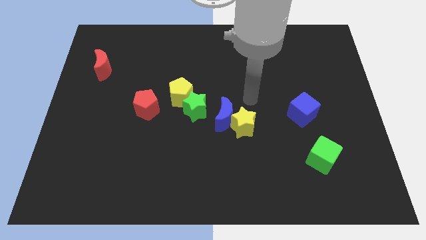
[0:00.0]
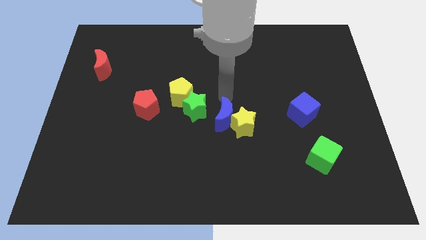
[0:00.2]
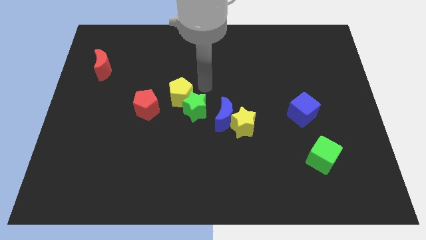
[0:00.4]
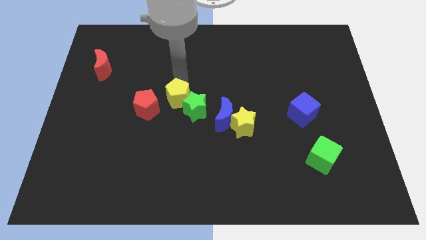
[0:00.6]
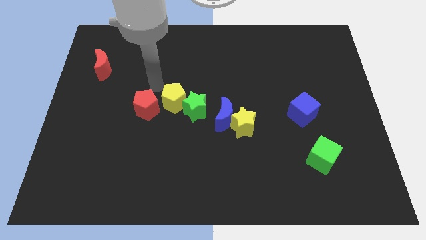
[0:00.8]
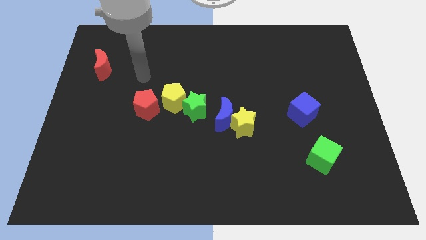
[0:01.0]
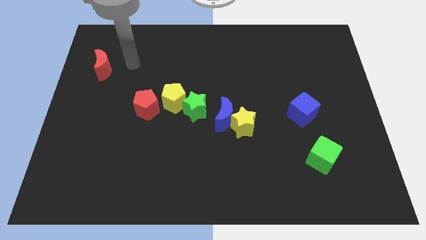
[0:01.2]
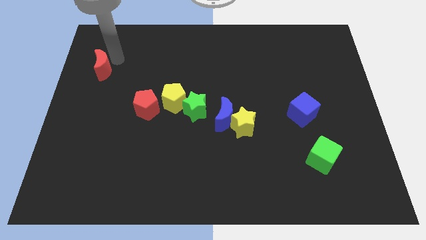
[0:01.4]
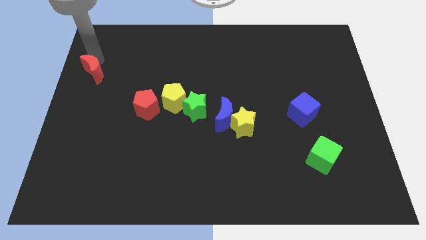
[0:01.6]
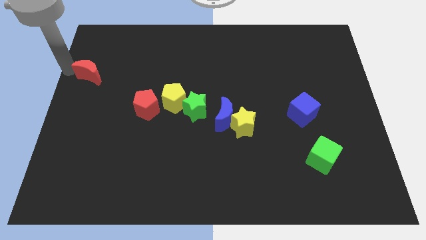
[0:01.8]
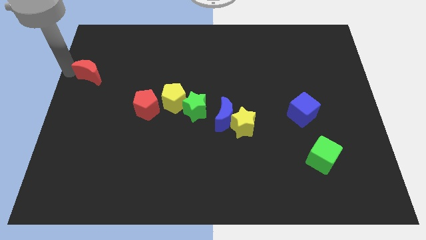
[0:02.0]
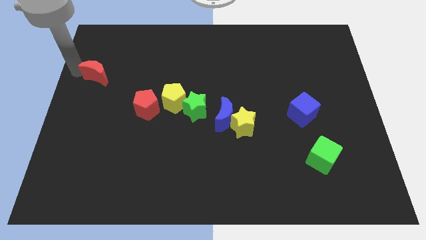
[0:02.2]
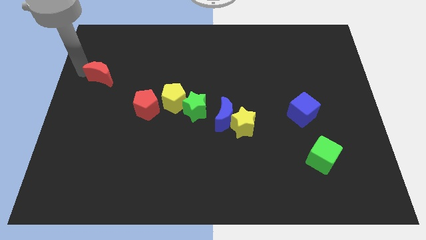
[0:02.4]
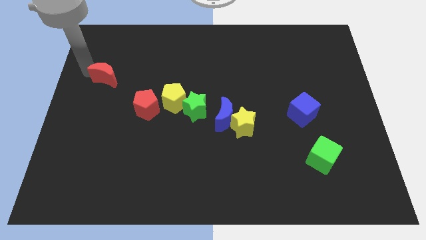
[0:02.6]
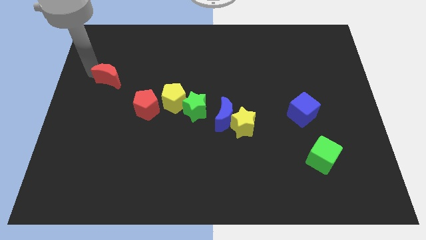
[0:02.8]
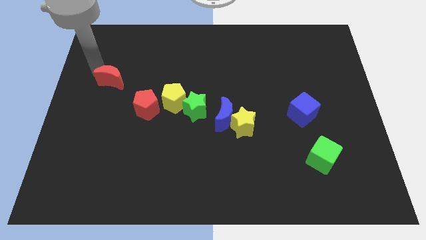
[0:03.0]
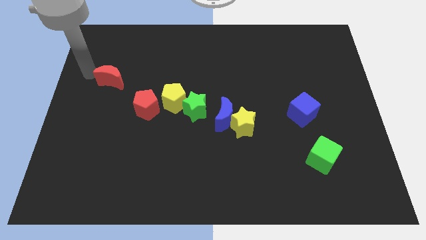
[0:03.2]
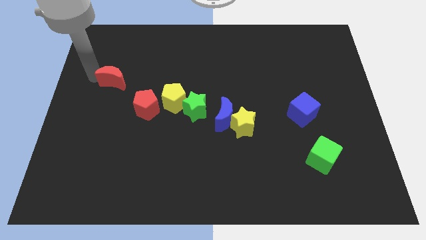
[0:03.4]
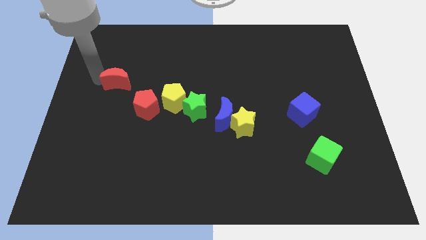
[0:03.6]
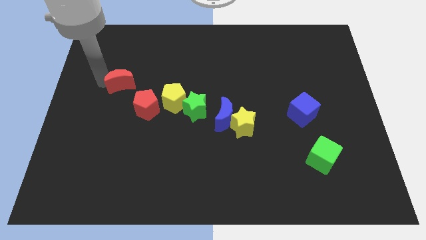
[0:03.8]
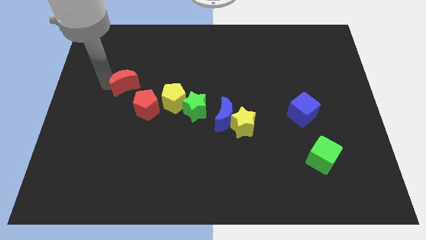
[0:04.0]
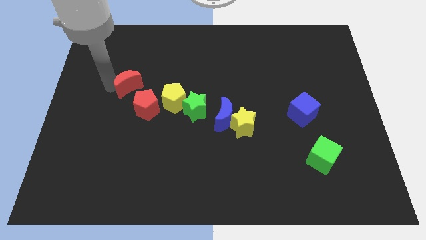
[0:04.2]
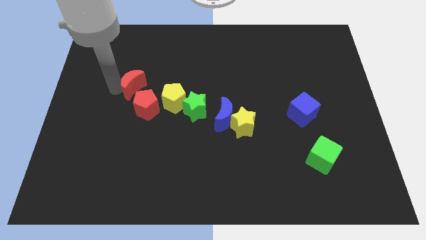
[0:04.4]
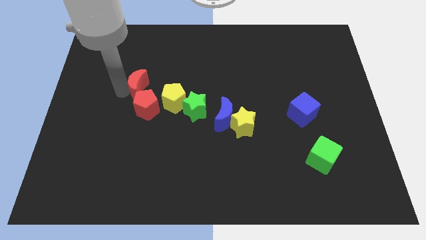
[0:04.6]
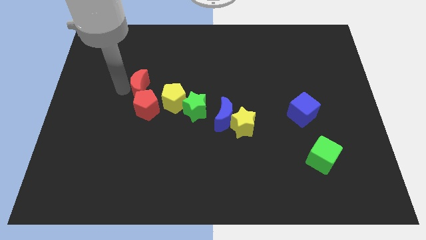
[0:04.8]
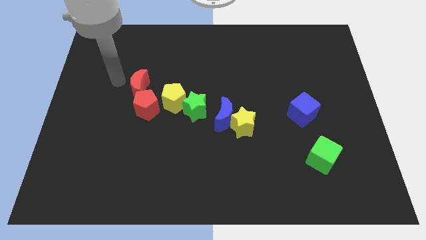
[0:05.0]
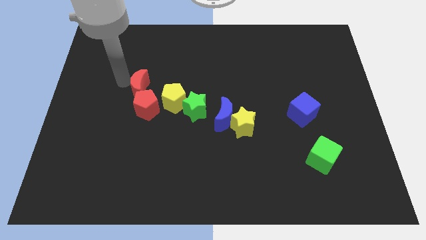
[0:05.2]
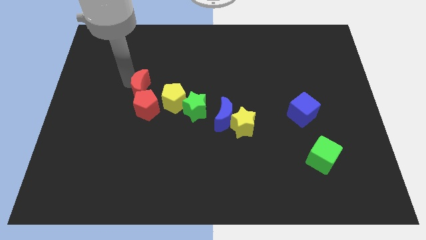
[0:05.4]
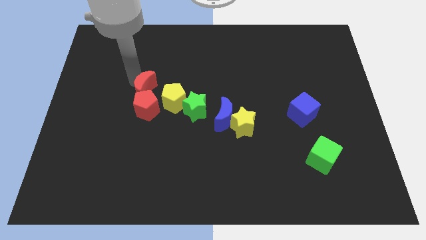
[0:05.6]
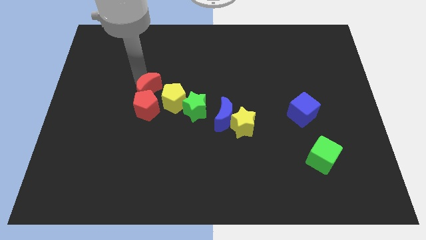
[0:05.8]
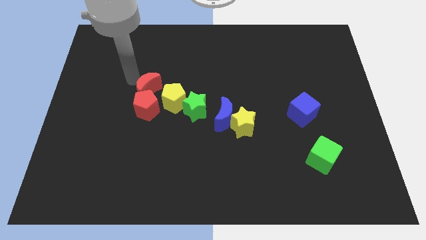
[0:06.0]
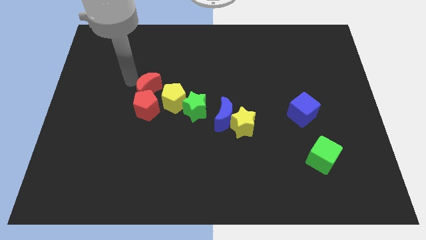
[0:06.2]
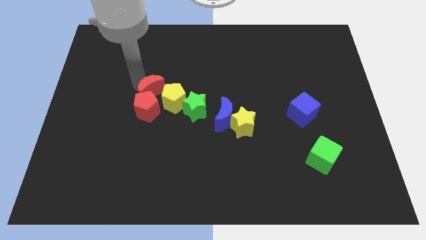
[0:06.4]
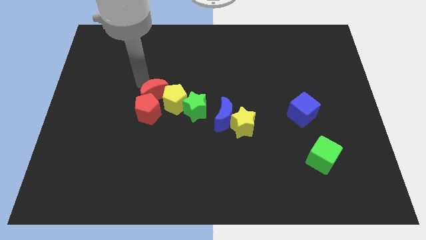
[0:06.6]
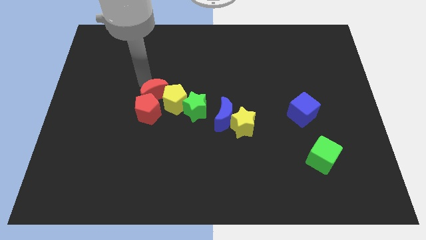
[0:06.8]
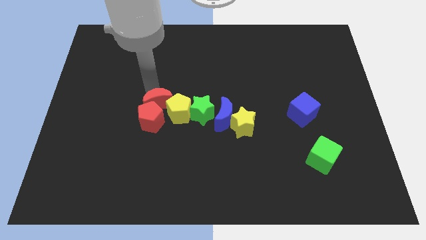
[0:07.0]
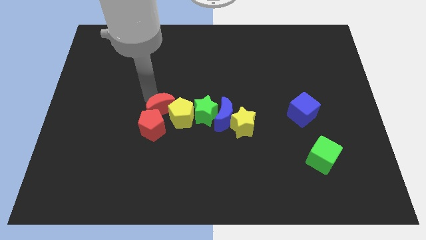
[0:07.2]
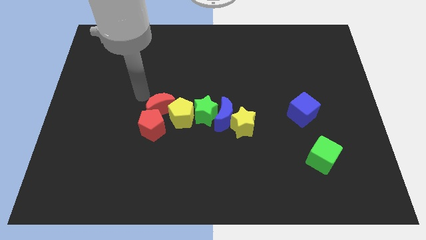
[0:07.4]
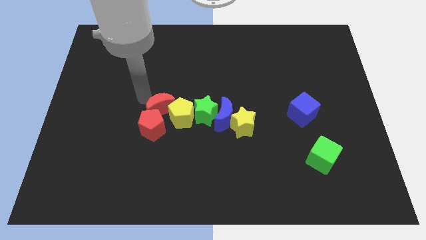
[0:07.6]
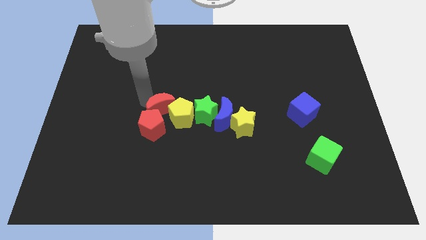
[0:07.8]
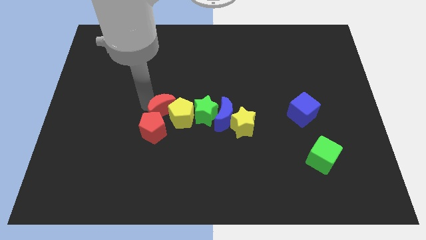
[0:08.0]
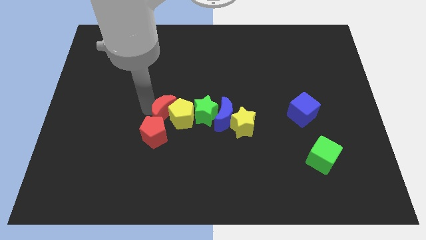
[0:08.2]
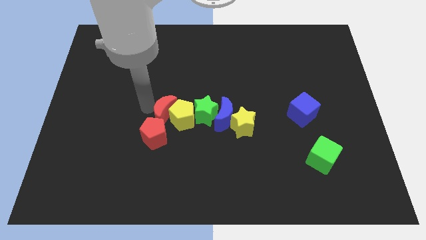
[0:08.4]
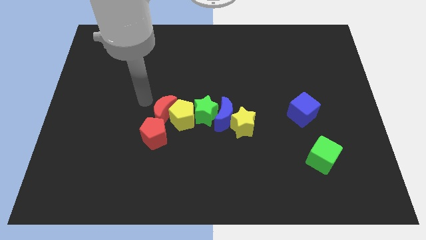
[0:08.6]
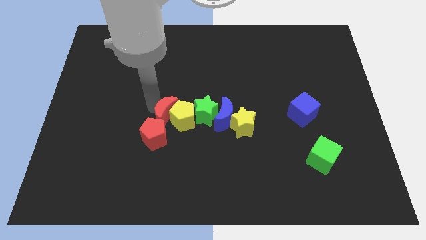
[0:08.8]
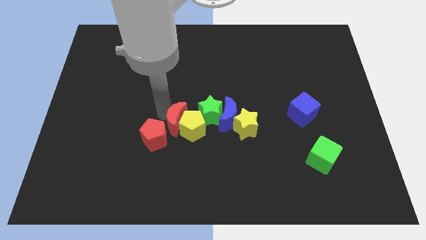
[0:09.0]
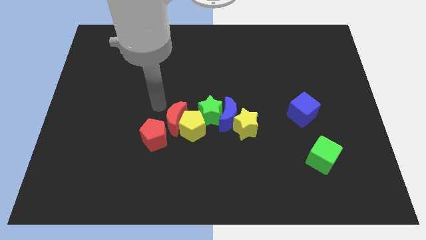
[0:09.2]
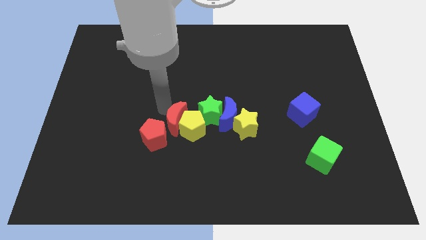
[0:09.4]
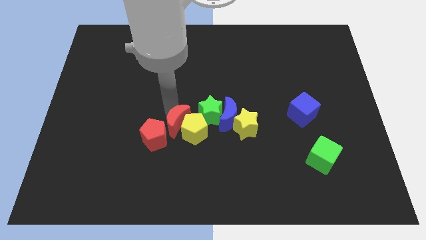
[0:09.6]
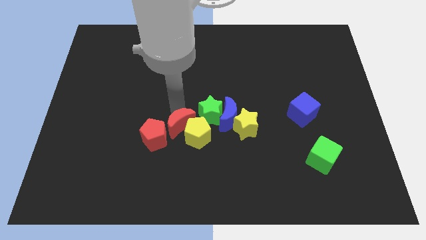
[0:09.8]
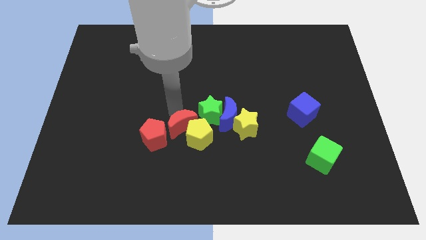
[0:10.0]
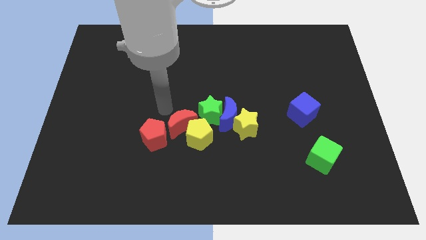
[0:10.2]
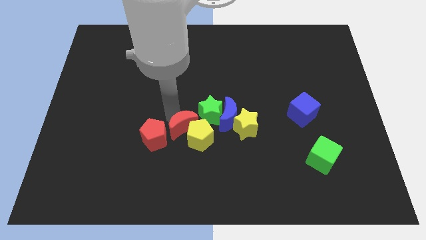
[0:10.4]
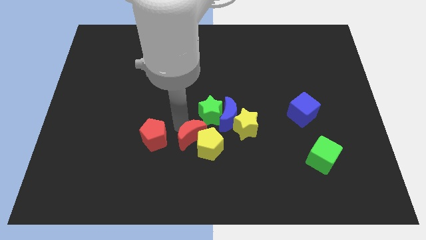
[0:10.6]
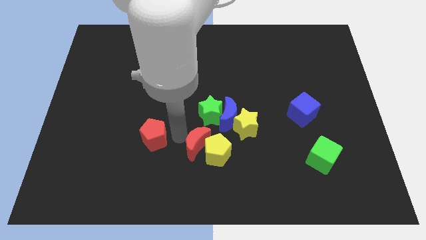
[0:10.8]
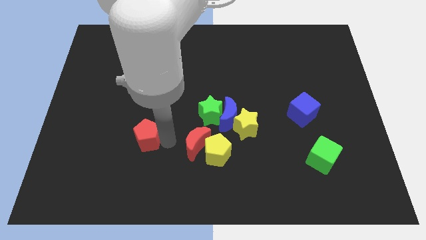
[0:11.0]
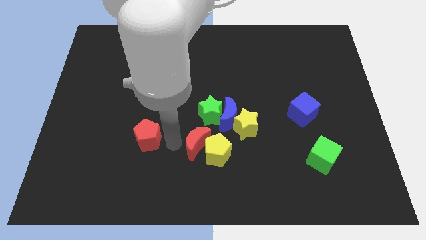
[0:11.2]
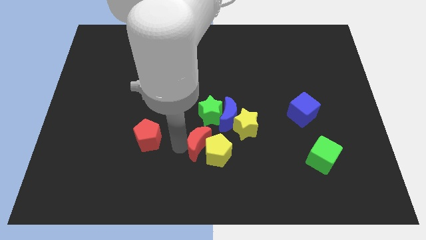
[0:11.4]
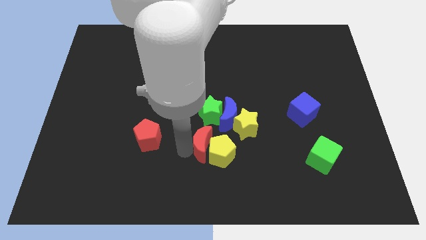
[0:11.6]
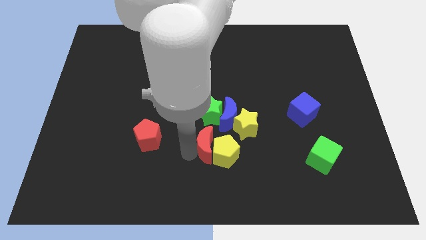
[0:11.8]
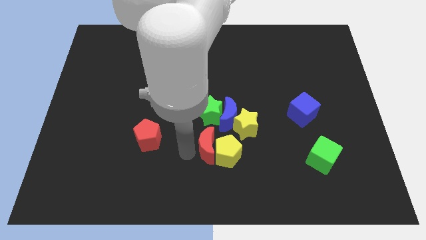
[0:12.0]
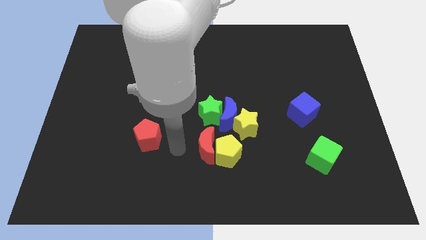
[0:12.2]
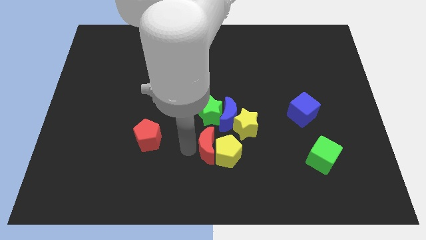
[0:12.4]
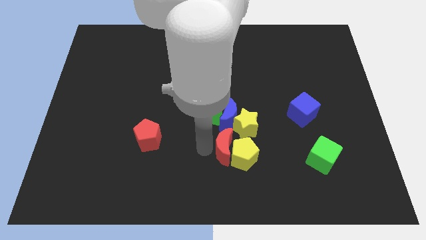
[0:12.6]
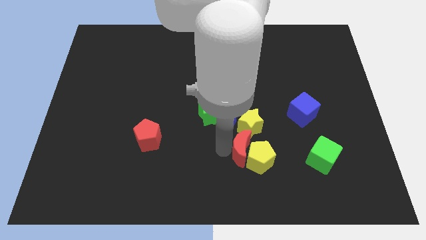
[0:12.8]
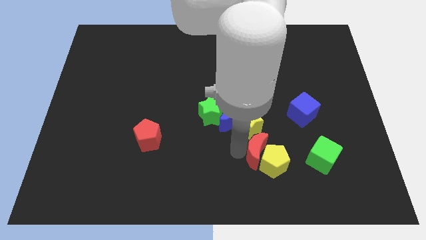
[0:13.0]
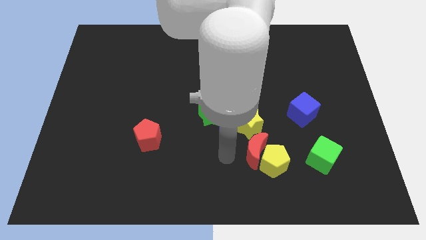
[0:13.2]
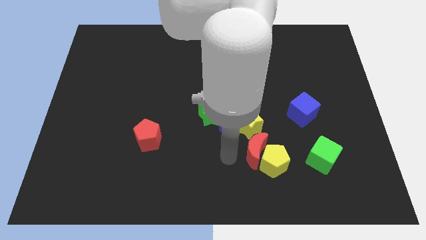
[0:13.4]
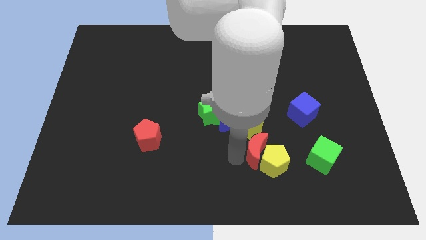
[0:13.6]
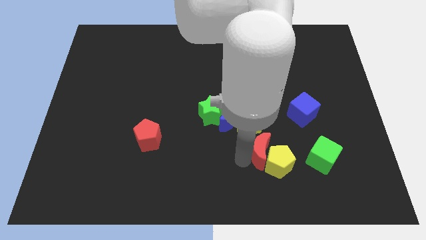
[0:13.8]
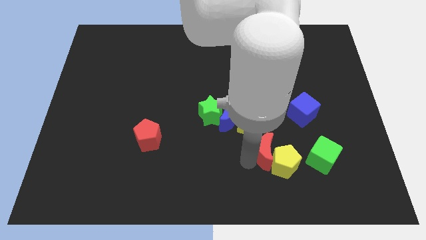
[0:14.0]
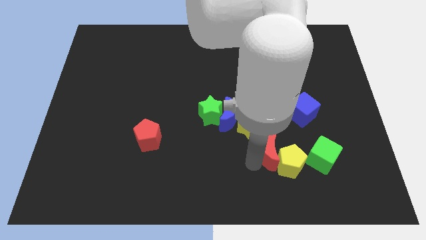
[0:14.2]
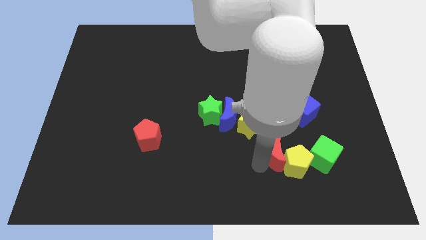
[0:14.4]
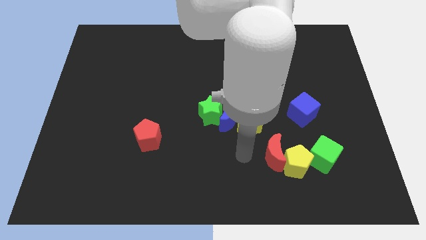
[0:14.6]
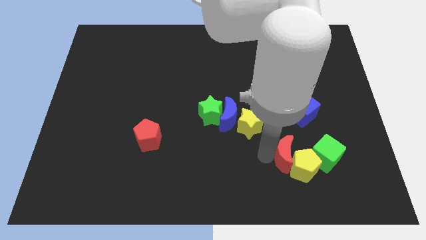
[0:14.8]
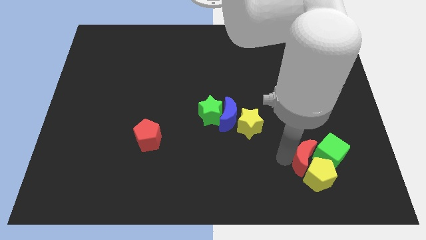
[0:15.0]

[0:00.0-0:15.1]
push the red moon next to the green cube
